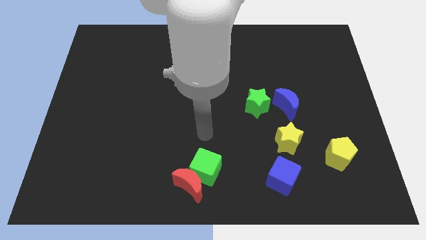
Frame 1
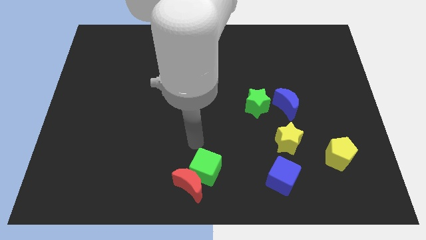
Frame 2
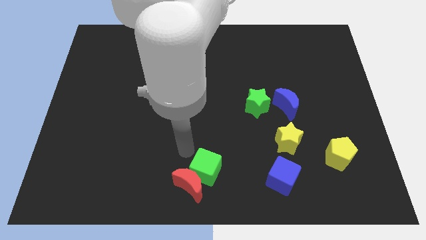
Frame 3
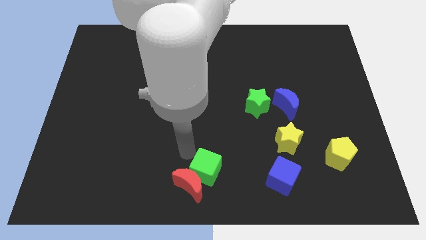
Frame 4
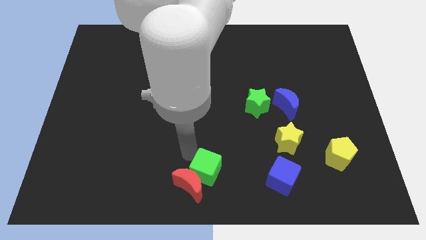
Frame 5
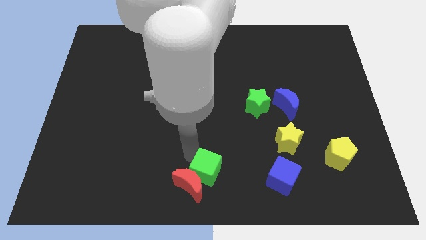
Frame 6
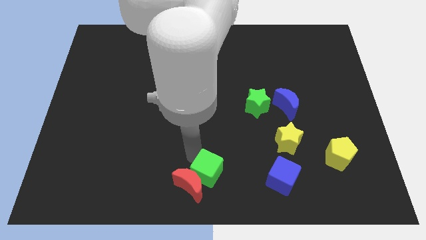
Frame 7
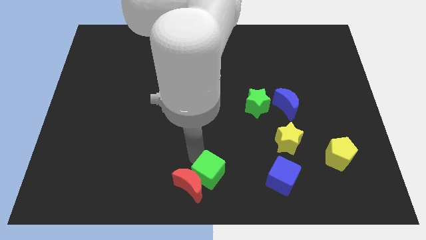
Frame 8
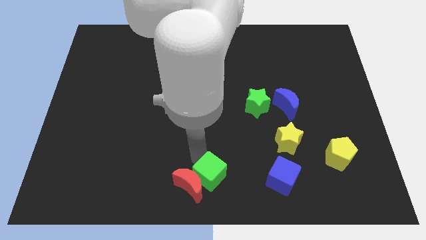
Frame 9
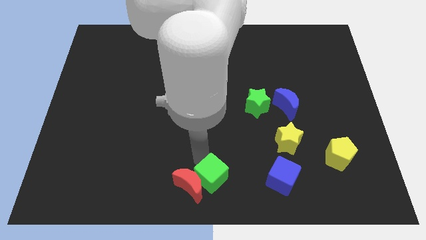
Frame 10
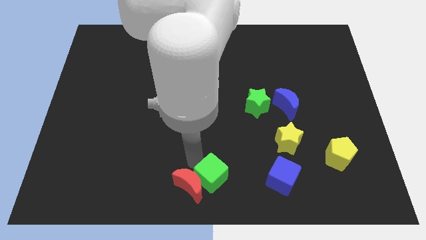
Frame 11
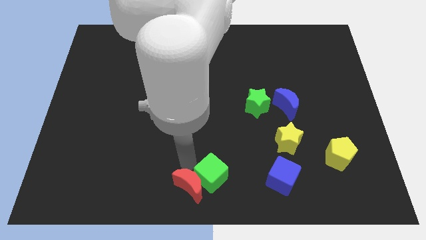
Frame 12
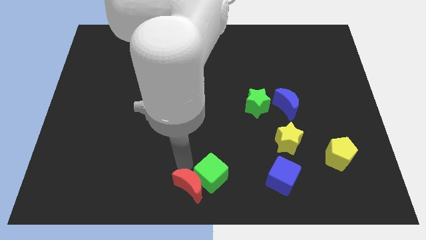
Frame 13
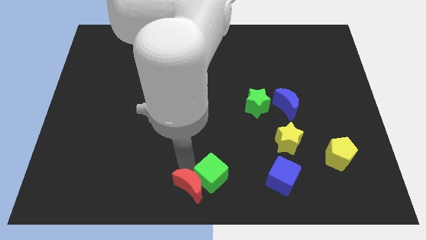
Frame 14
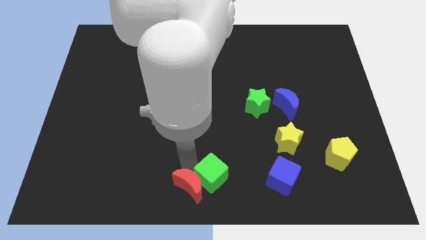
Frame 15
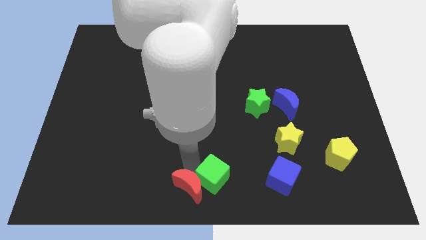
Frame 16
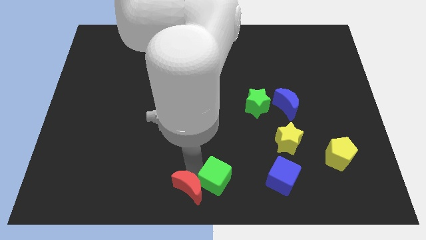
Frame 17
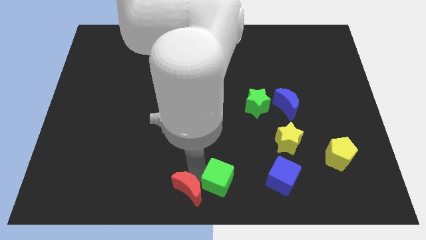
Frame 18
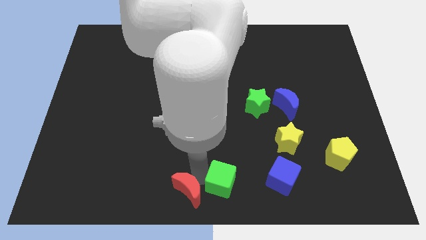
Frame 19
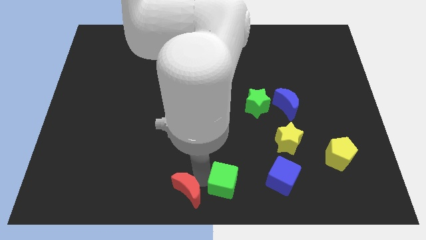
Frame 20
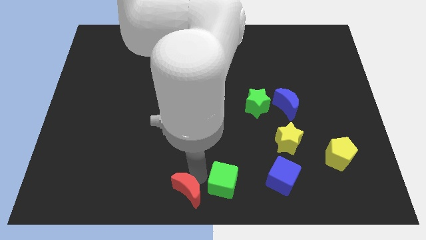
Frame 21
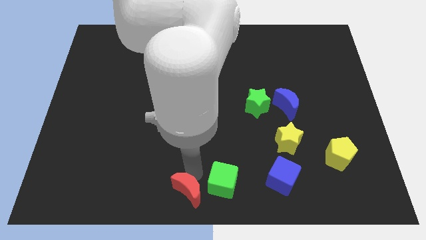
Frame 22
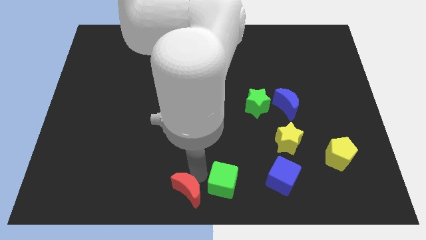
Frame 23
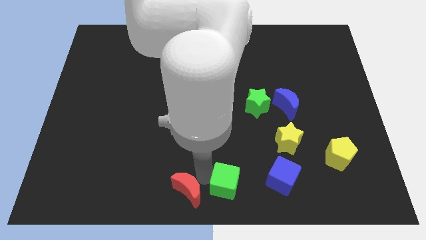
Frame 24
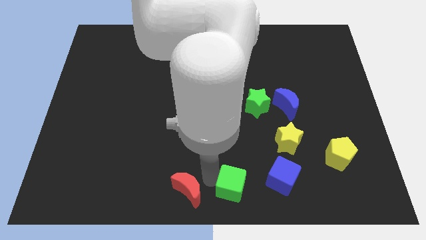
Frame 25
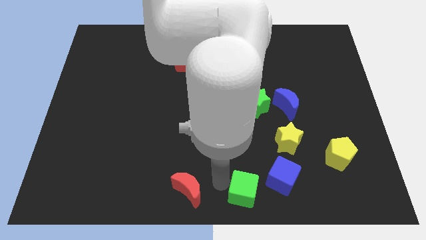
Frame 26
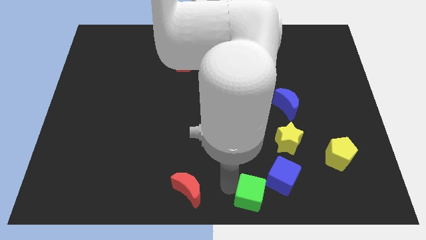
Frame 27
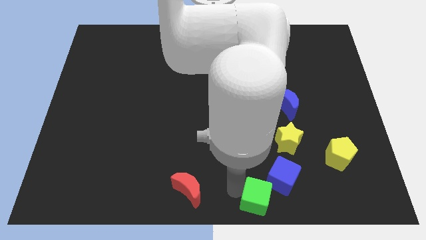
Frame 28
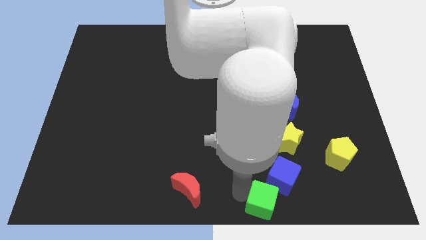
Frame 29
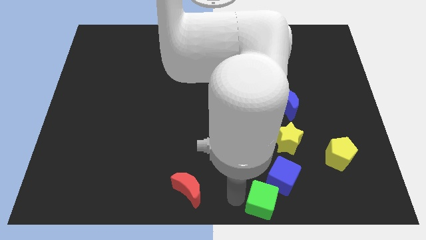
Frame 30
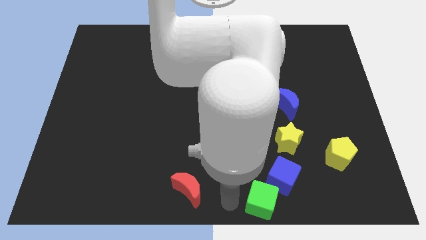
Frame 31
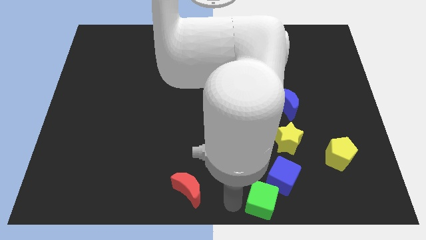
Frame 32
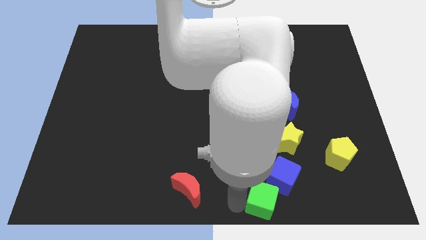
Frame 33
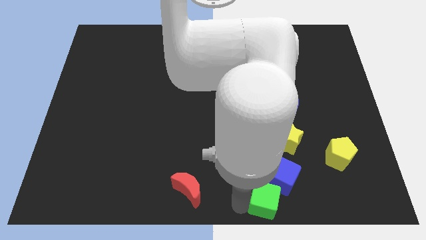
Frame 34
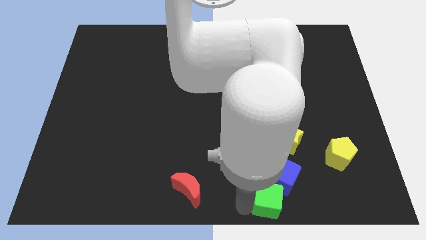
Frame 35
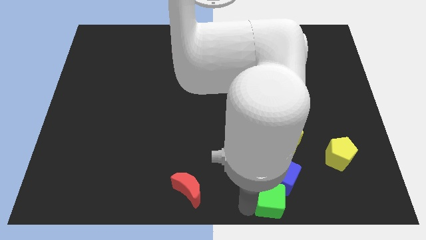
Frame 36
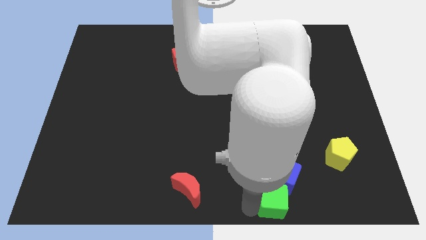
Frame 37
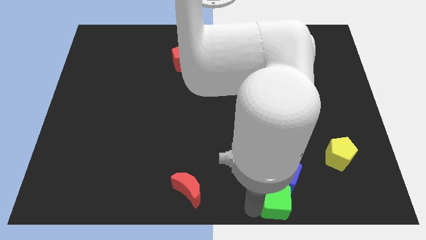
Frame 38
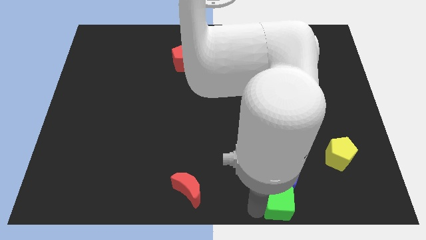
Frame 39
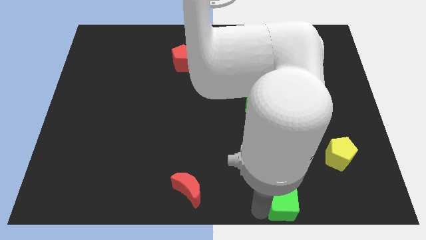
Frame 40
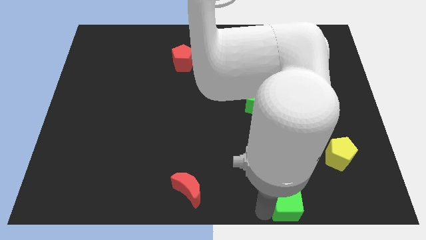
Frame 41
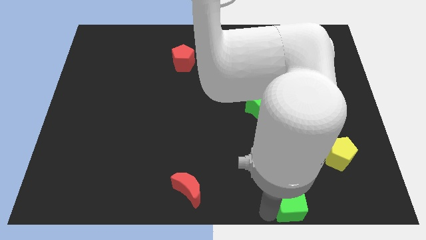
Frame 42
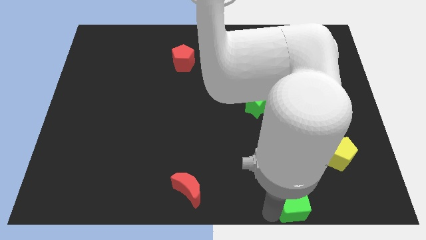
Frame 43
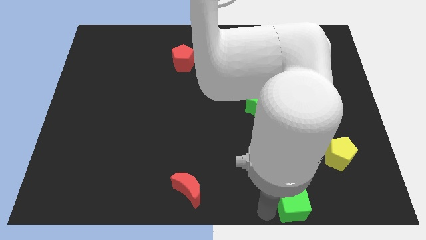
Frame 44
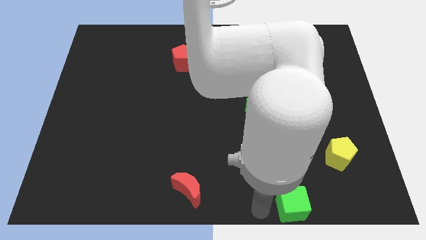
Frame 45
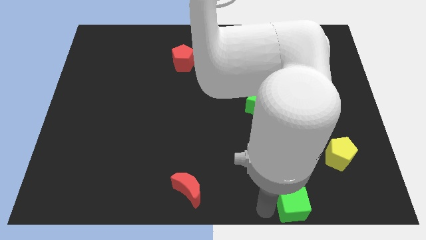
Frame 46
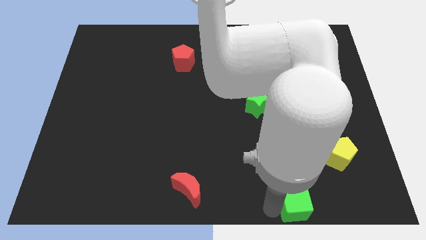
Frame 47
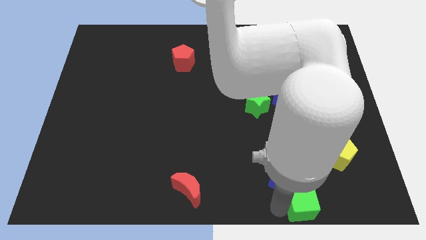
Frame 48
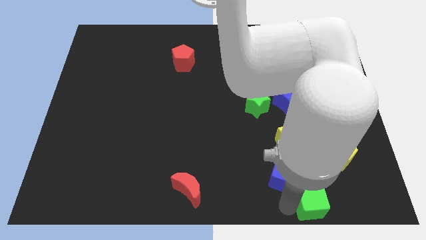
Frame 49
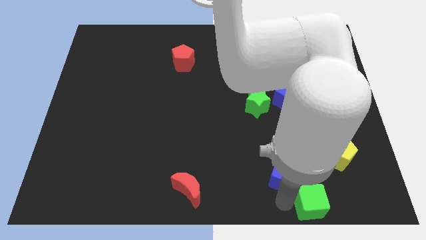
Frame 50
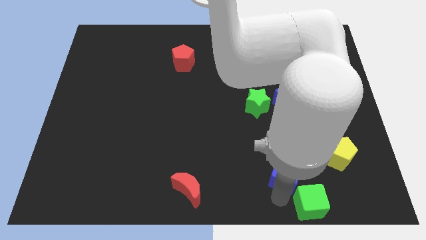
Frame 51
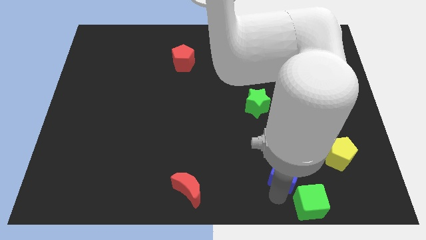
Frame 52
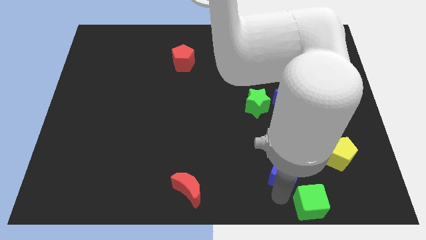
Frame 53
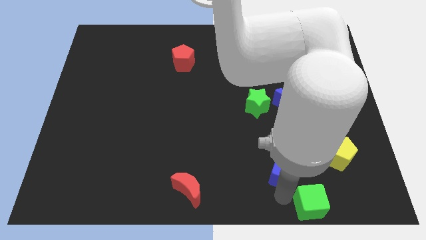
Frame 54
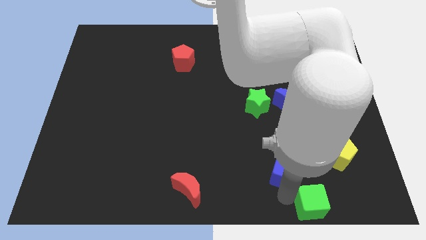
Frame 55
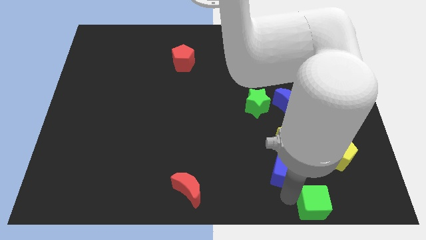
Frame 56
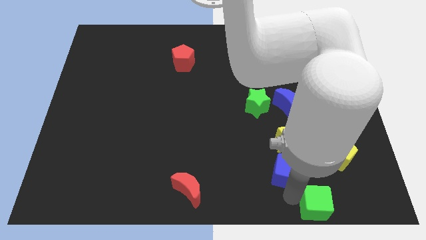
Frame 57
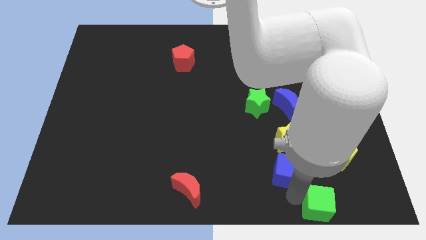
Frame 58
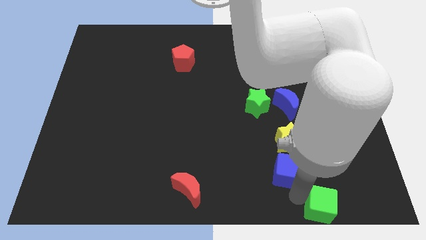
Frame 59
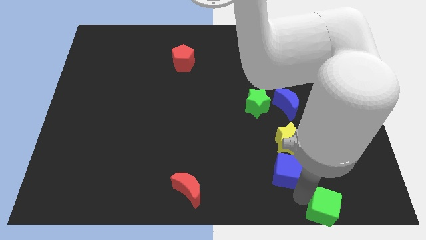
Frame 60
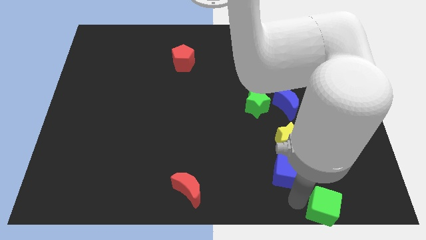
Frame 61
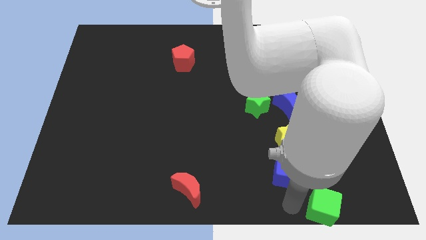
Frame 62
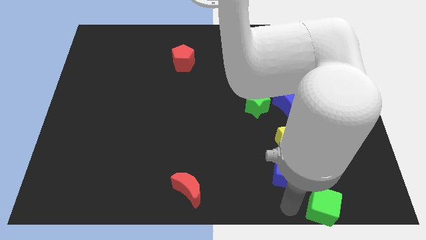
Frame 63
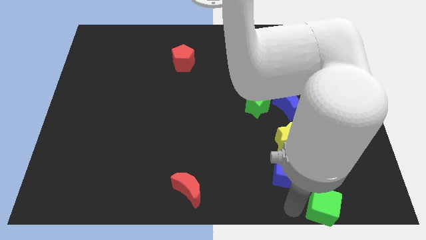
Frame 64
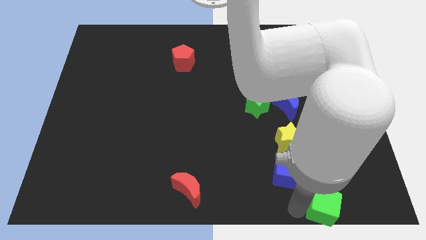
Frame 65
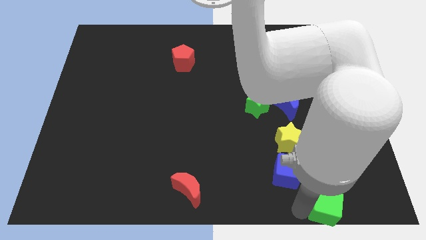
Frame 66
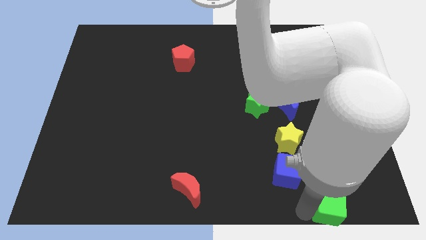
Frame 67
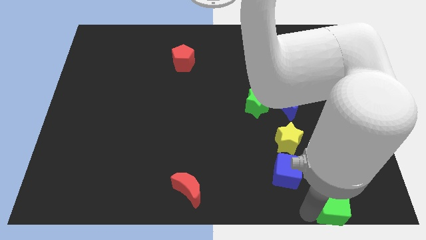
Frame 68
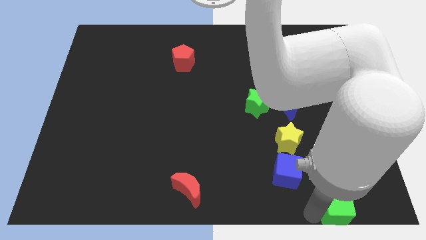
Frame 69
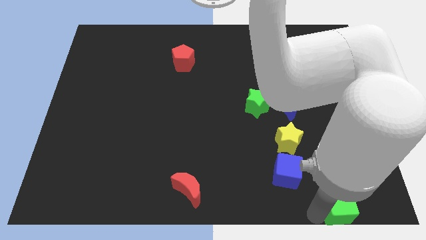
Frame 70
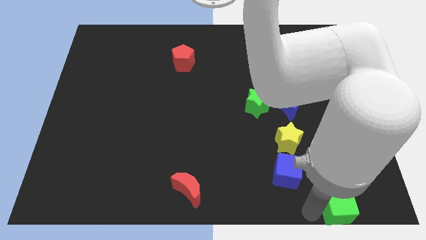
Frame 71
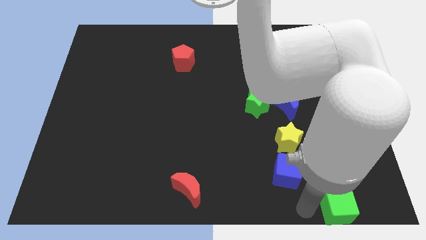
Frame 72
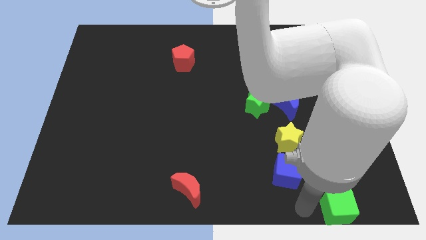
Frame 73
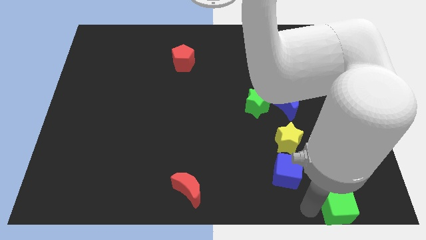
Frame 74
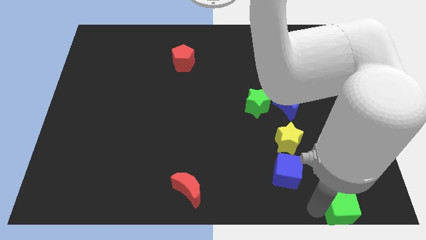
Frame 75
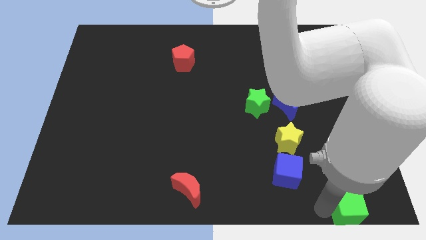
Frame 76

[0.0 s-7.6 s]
put the green cube to the bottom right corner
